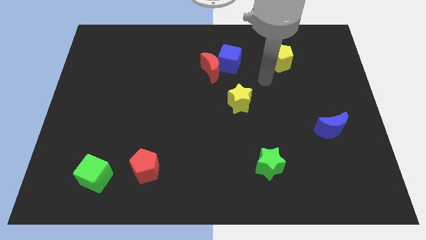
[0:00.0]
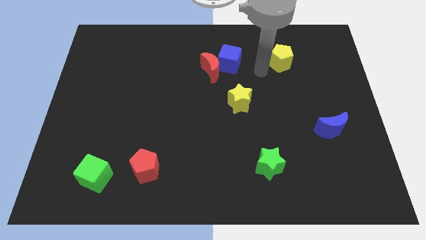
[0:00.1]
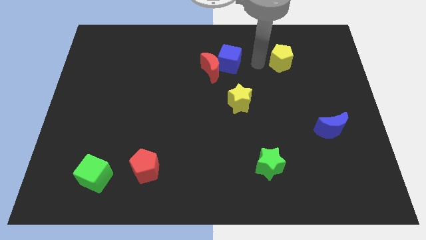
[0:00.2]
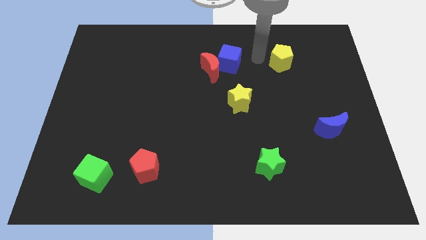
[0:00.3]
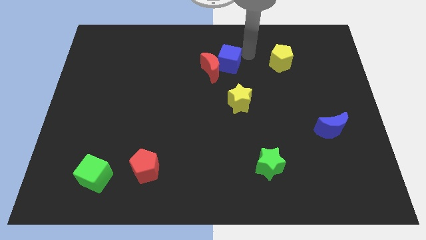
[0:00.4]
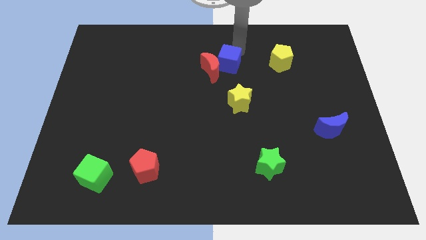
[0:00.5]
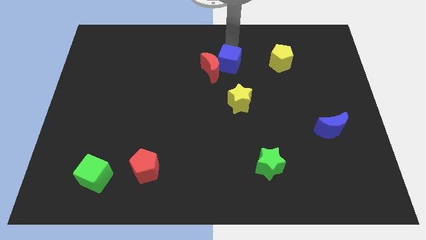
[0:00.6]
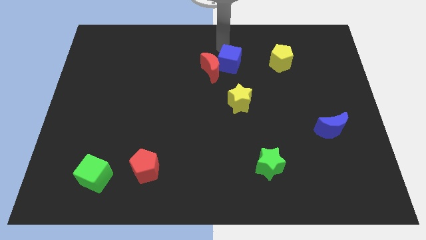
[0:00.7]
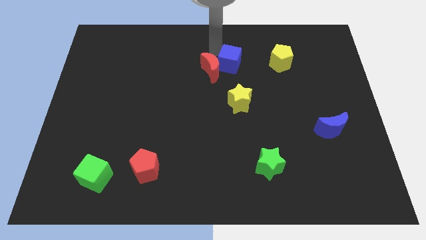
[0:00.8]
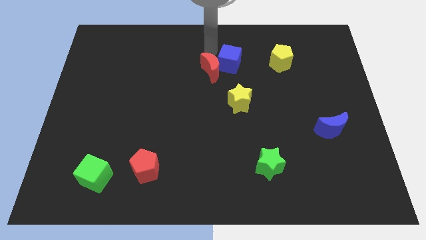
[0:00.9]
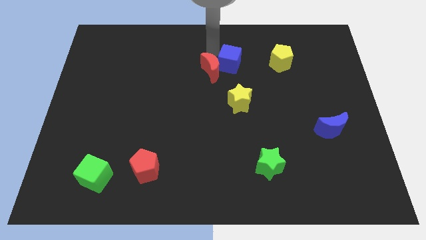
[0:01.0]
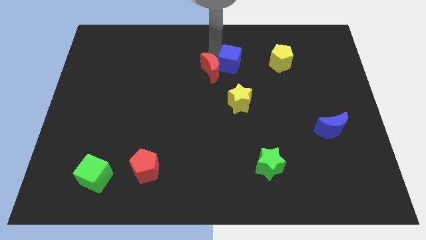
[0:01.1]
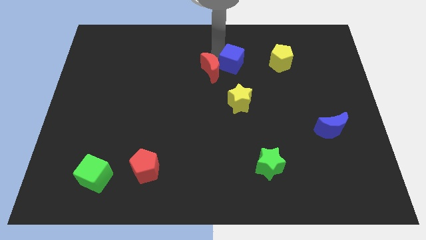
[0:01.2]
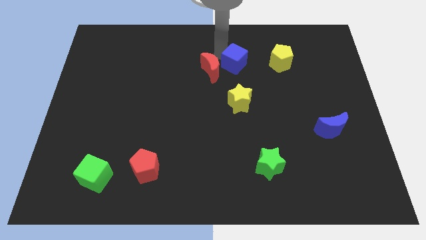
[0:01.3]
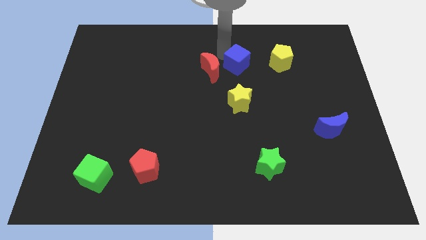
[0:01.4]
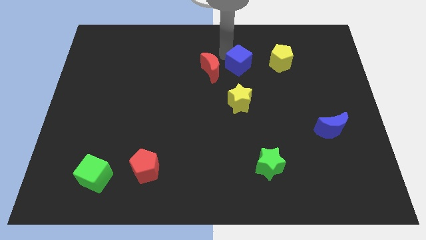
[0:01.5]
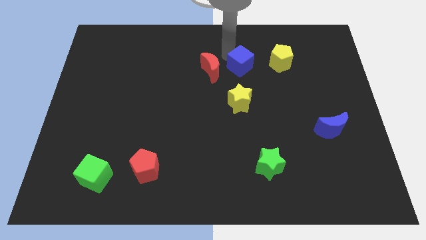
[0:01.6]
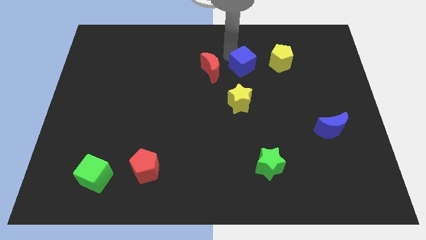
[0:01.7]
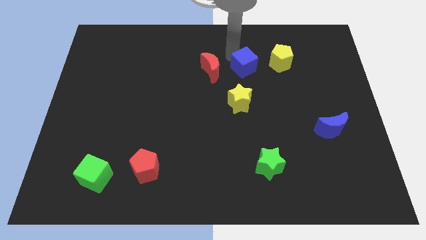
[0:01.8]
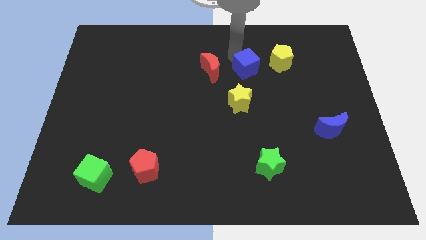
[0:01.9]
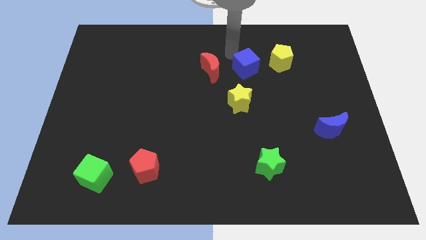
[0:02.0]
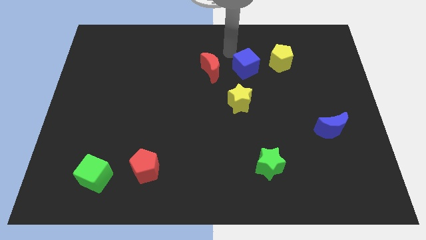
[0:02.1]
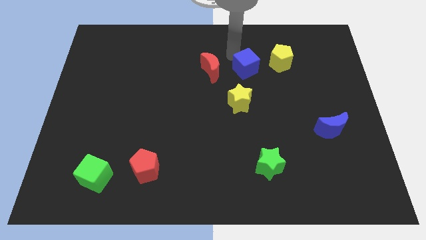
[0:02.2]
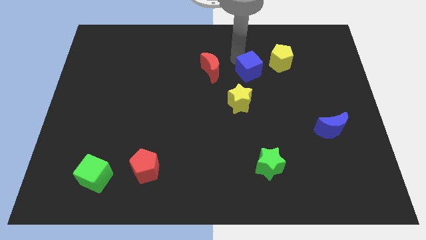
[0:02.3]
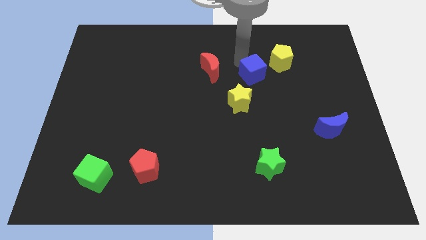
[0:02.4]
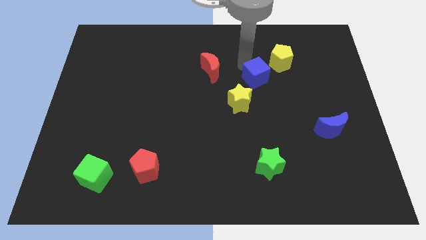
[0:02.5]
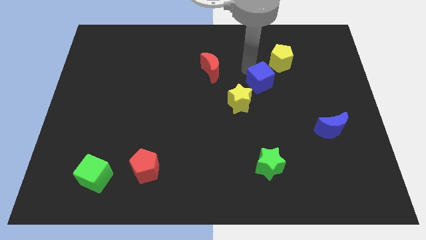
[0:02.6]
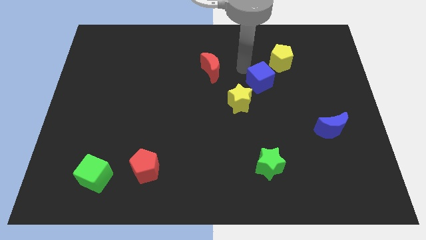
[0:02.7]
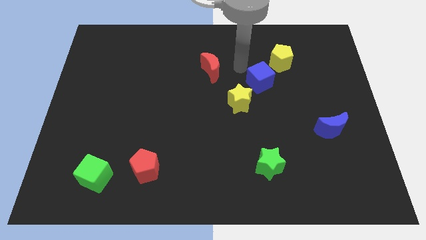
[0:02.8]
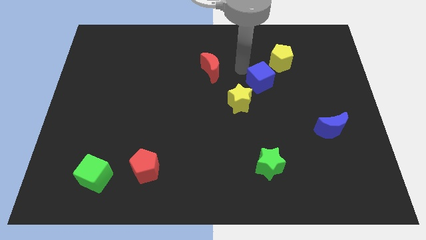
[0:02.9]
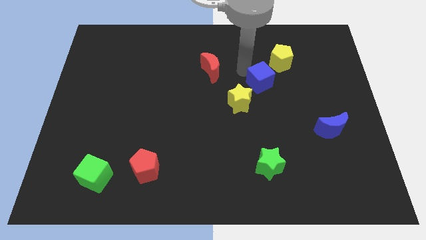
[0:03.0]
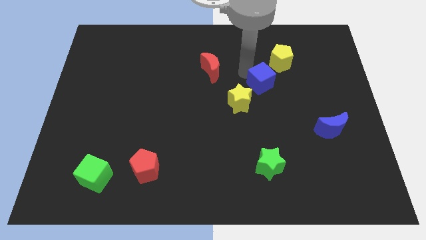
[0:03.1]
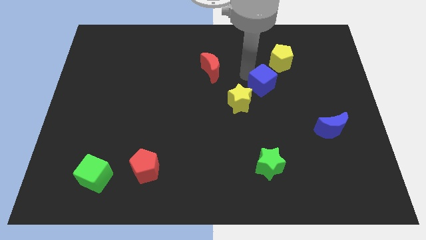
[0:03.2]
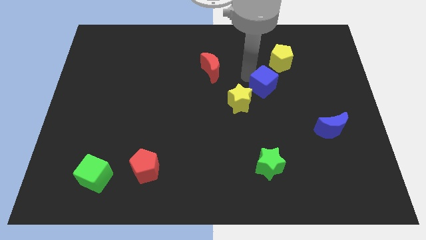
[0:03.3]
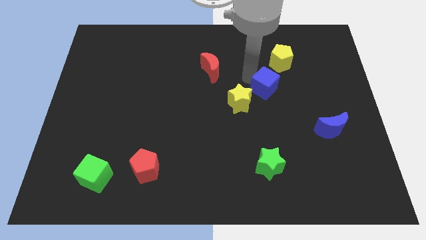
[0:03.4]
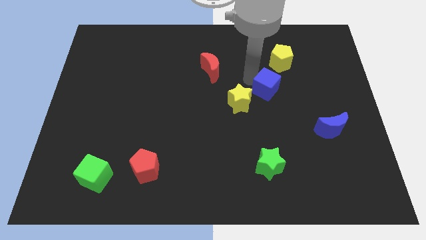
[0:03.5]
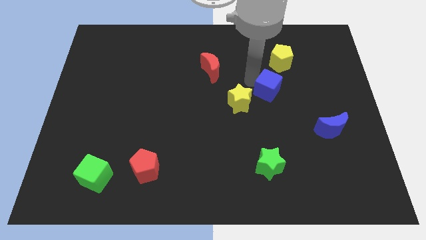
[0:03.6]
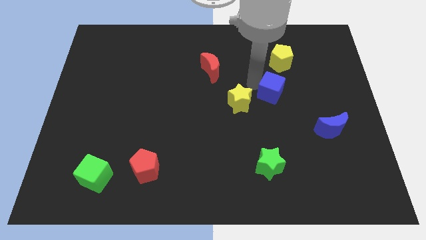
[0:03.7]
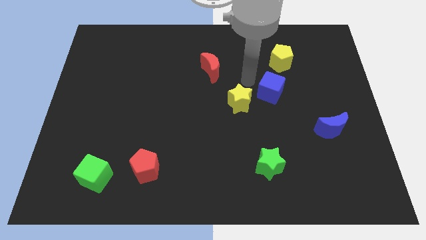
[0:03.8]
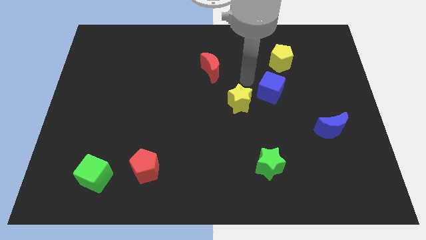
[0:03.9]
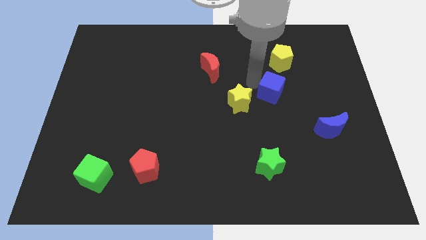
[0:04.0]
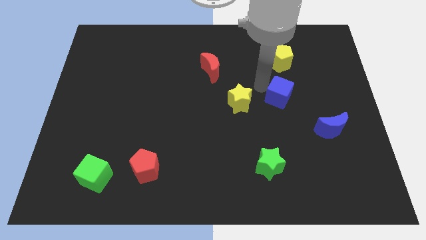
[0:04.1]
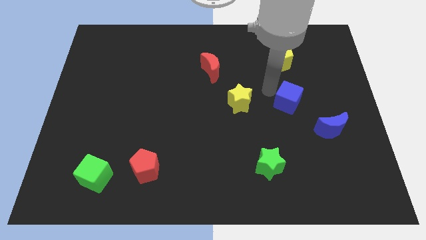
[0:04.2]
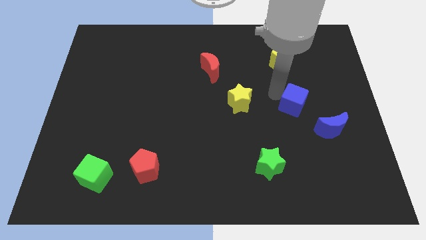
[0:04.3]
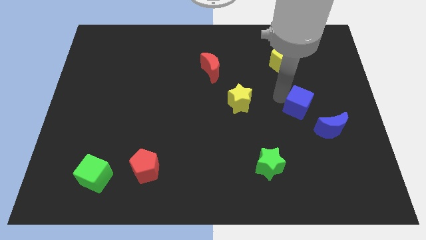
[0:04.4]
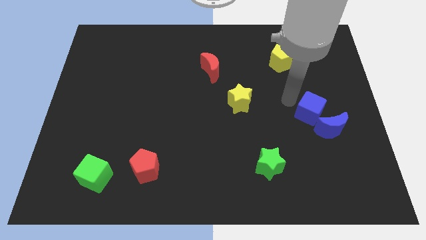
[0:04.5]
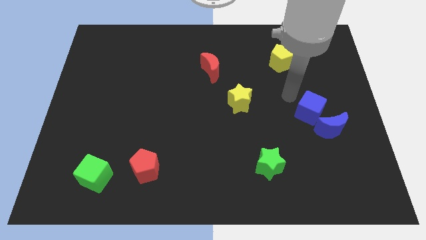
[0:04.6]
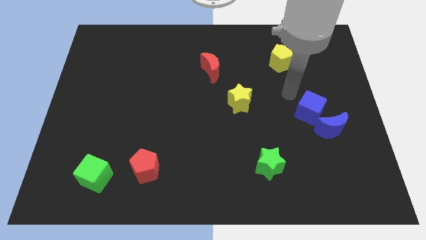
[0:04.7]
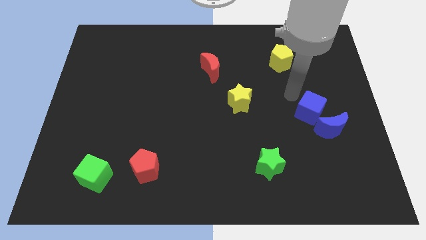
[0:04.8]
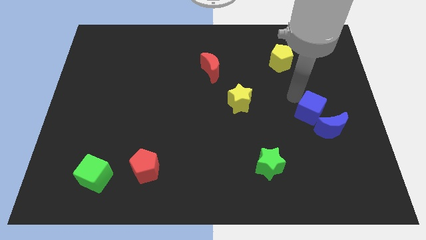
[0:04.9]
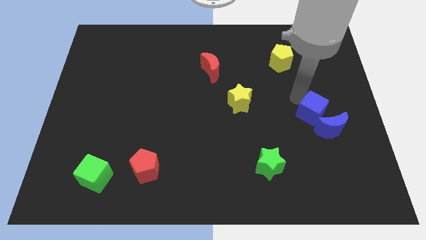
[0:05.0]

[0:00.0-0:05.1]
slide the blue cube next to the blue moon
